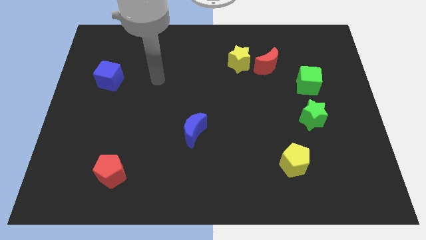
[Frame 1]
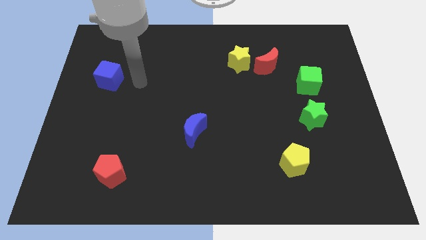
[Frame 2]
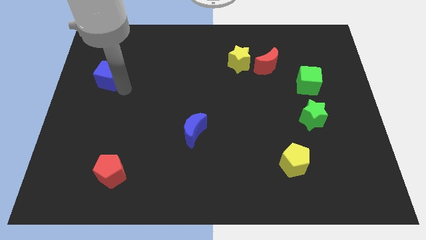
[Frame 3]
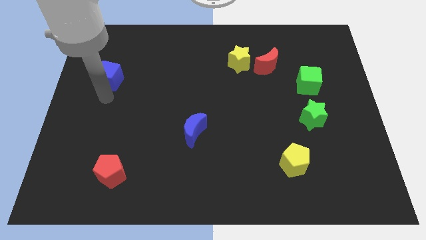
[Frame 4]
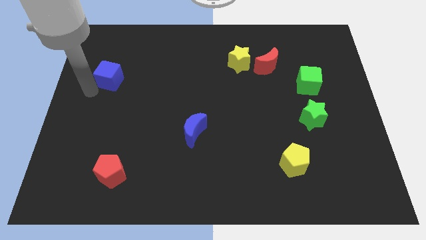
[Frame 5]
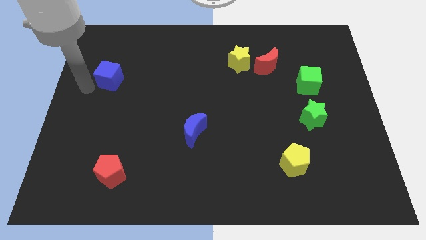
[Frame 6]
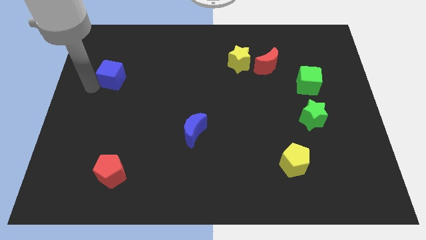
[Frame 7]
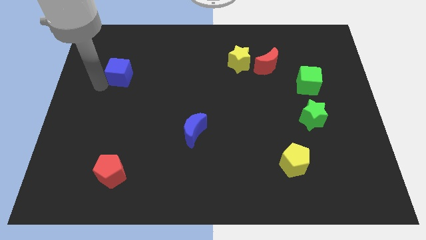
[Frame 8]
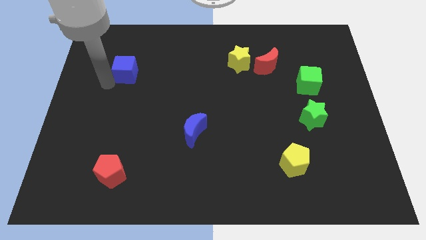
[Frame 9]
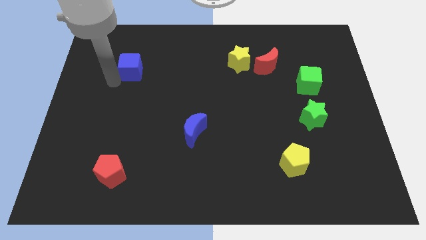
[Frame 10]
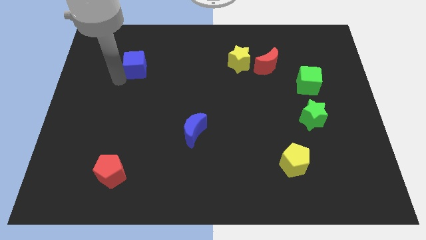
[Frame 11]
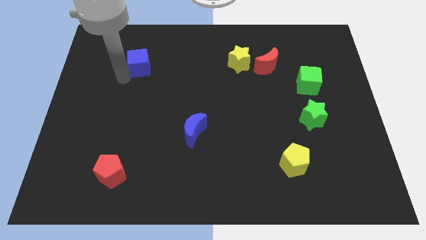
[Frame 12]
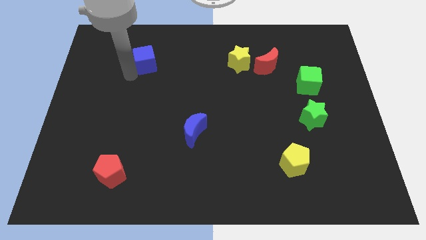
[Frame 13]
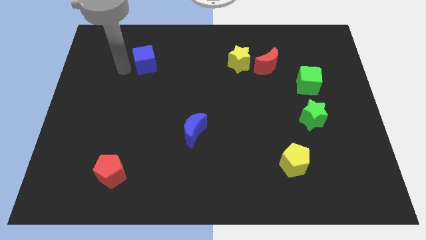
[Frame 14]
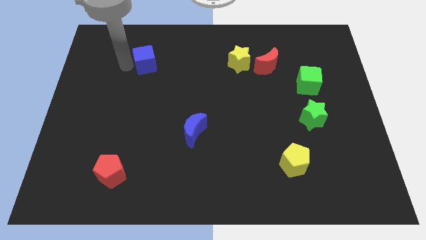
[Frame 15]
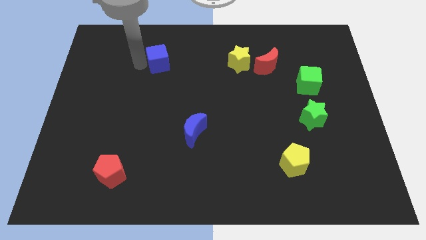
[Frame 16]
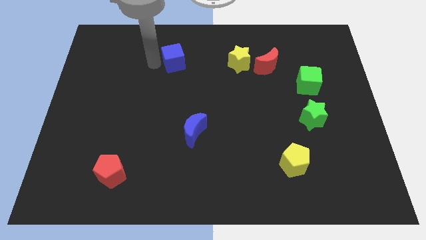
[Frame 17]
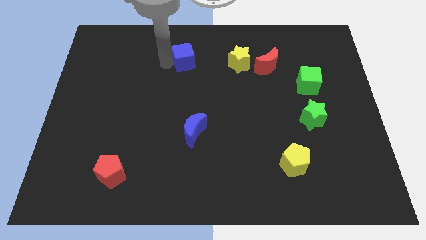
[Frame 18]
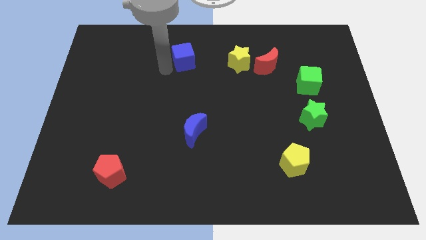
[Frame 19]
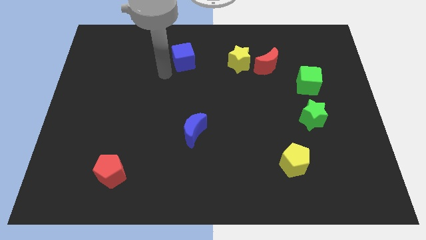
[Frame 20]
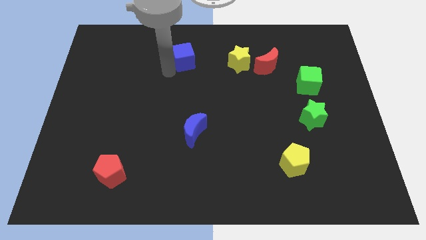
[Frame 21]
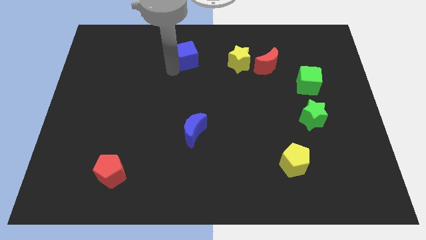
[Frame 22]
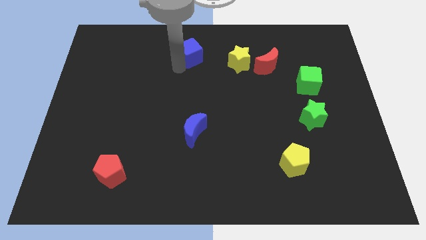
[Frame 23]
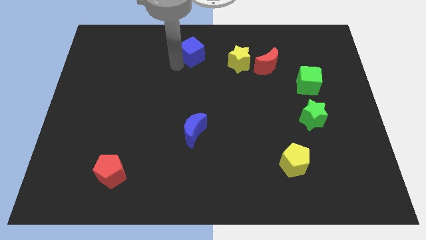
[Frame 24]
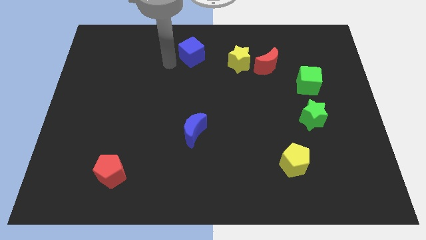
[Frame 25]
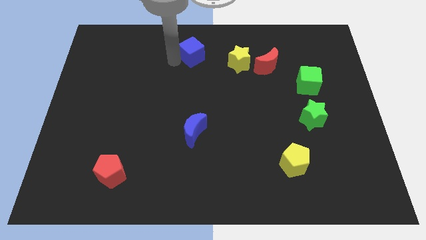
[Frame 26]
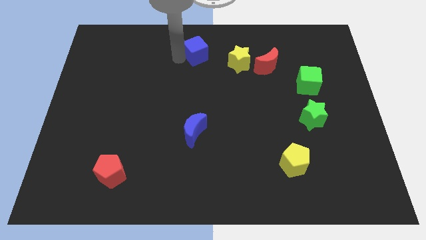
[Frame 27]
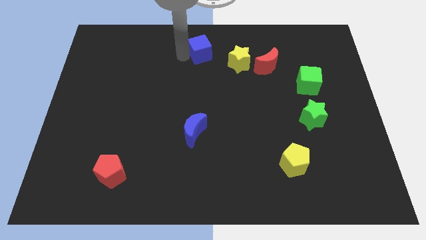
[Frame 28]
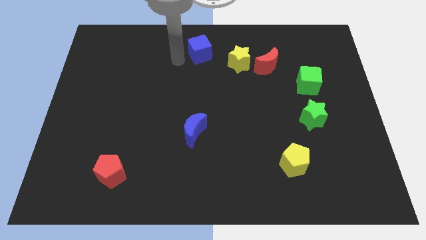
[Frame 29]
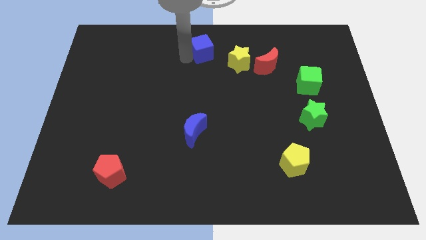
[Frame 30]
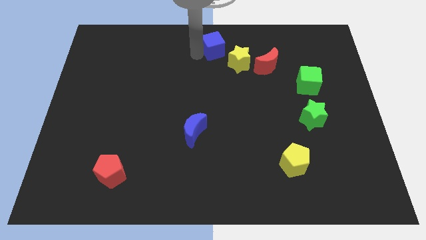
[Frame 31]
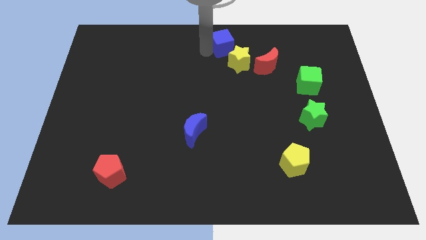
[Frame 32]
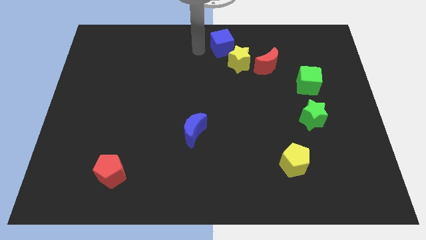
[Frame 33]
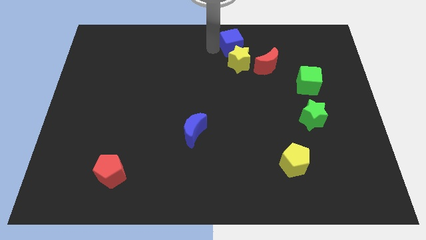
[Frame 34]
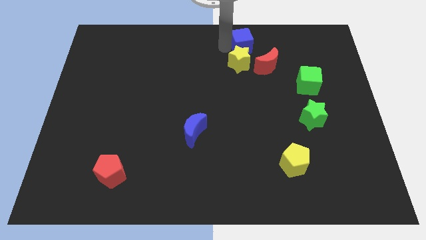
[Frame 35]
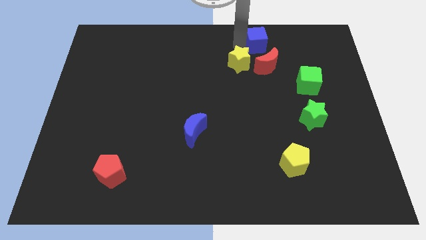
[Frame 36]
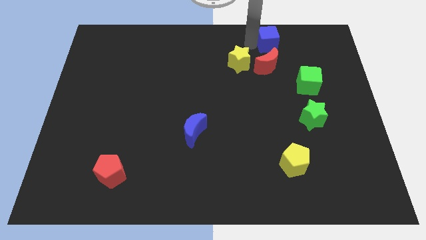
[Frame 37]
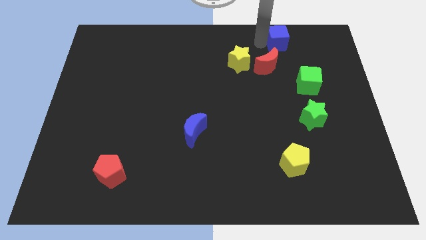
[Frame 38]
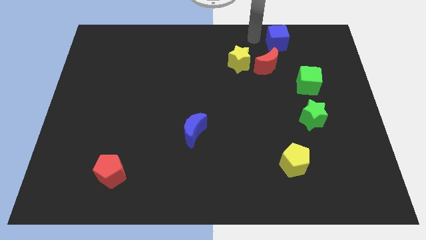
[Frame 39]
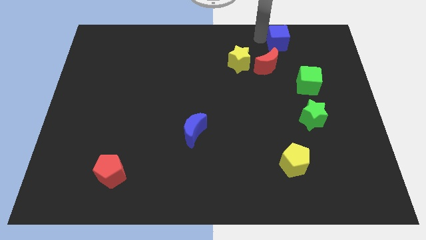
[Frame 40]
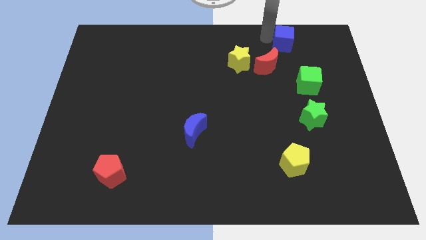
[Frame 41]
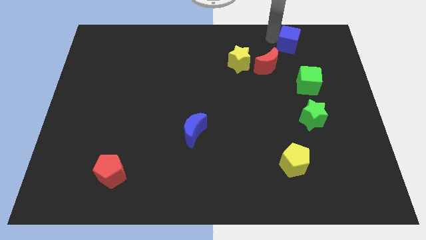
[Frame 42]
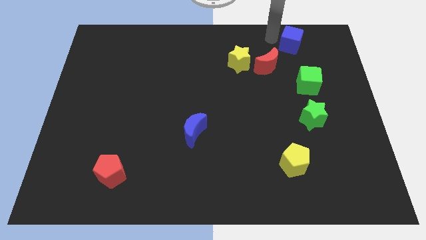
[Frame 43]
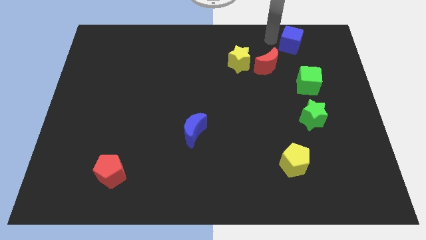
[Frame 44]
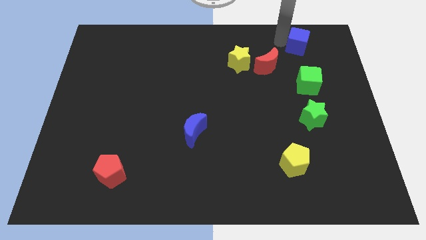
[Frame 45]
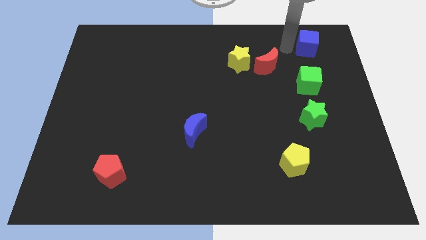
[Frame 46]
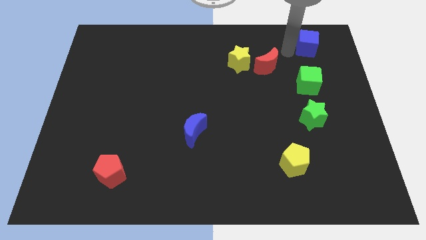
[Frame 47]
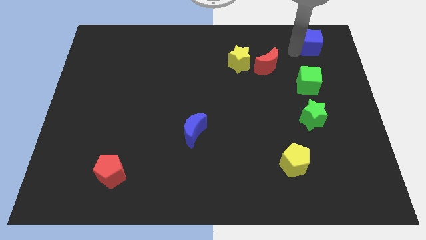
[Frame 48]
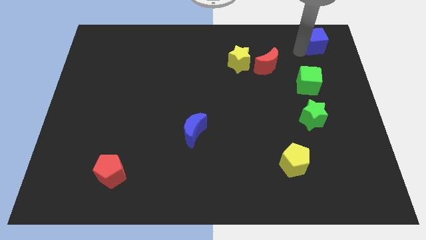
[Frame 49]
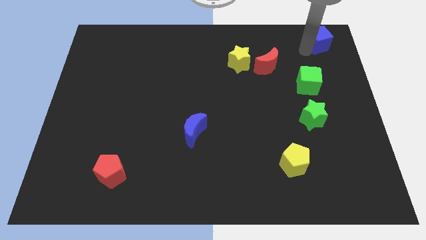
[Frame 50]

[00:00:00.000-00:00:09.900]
slide the blue cube to the top right

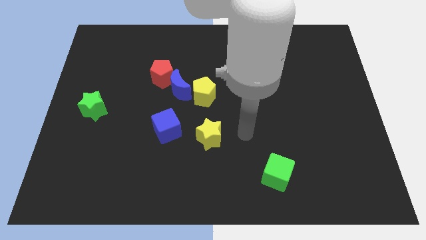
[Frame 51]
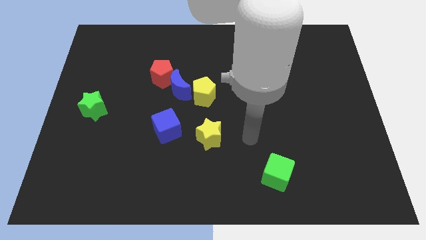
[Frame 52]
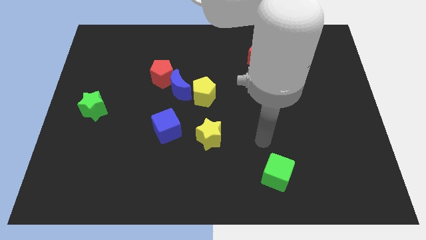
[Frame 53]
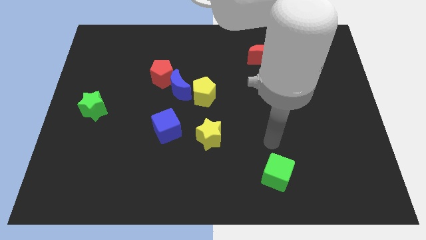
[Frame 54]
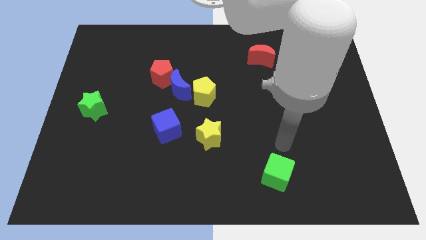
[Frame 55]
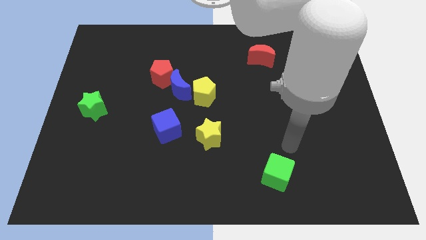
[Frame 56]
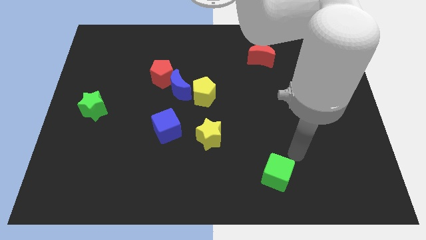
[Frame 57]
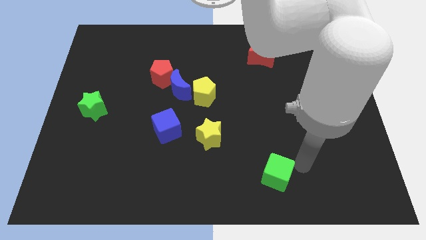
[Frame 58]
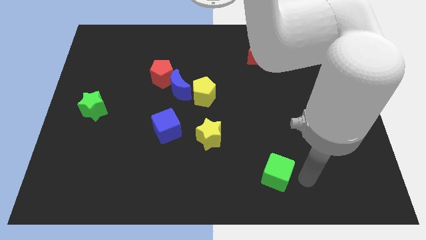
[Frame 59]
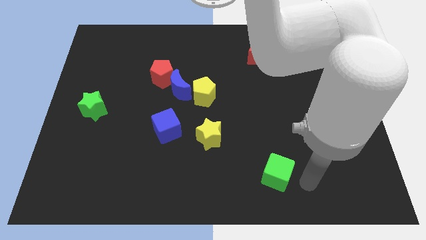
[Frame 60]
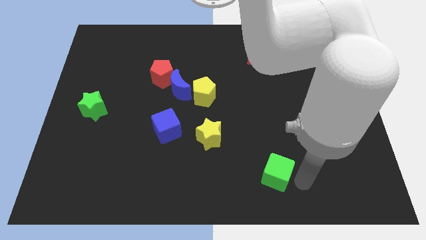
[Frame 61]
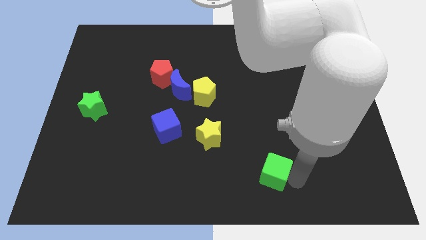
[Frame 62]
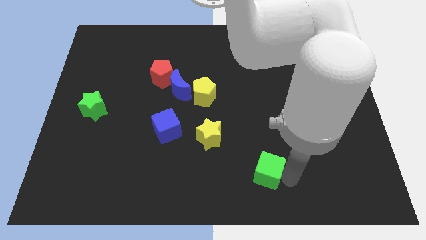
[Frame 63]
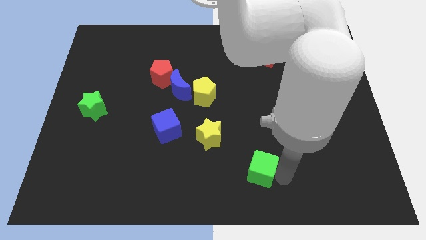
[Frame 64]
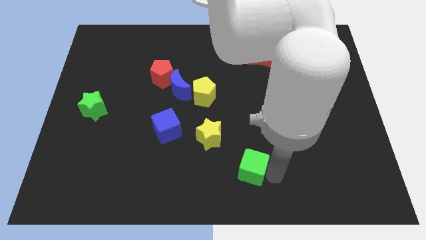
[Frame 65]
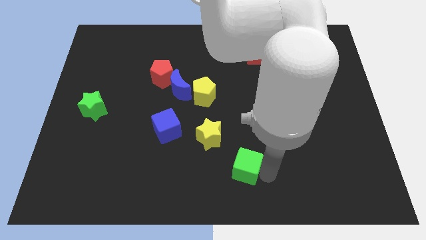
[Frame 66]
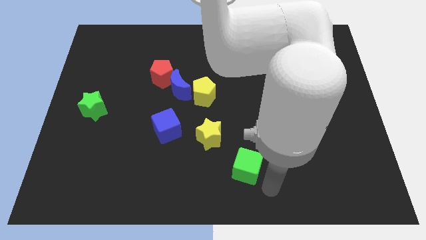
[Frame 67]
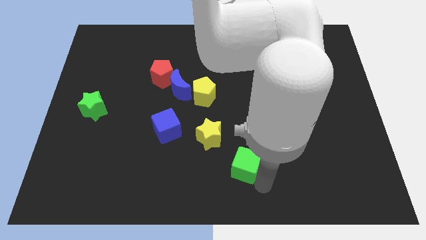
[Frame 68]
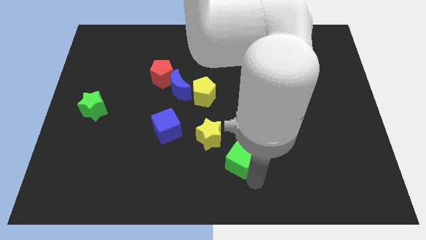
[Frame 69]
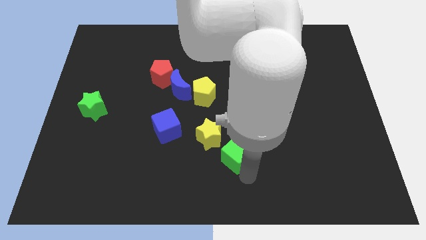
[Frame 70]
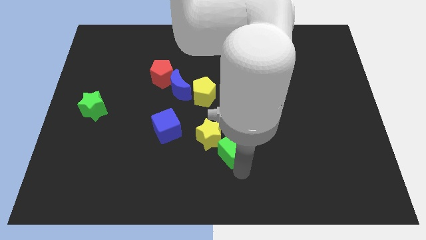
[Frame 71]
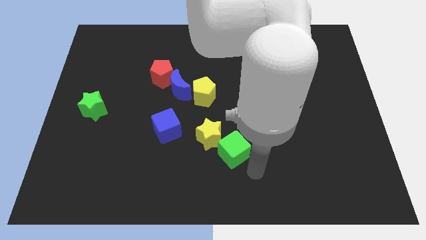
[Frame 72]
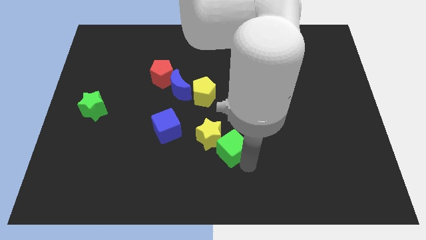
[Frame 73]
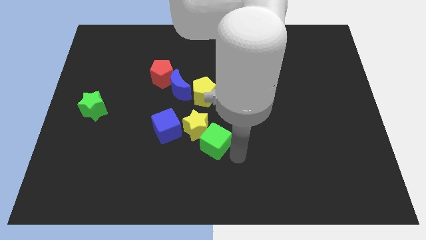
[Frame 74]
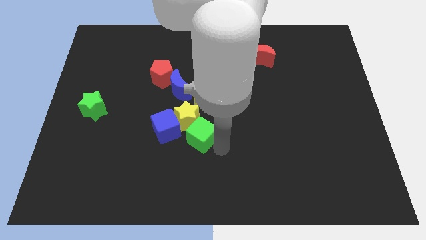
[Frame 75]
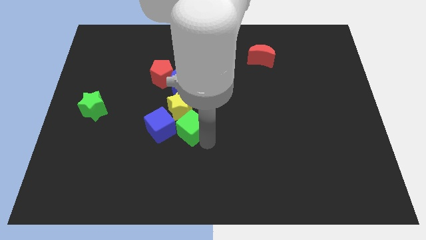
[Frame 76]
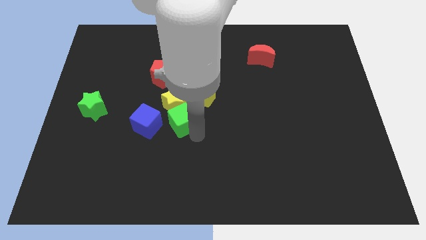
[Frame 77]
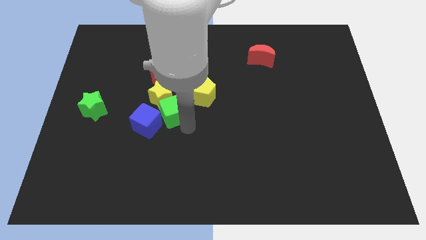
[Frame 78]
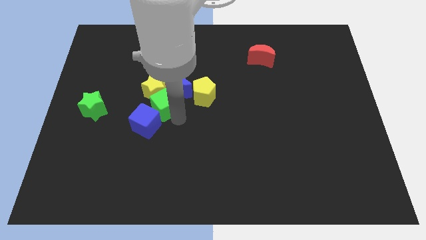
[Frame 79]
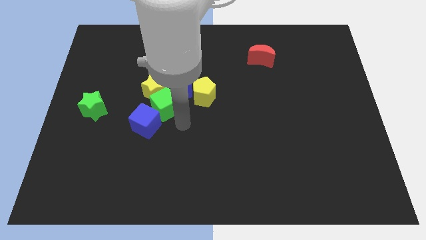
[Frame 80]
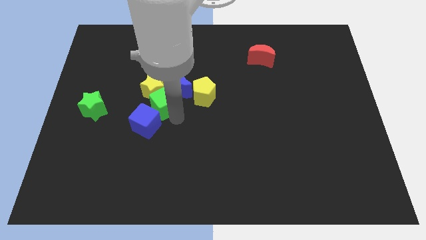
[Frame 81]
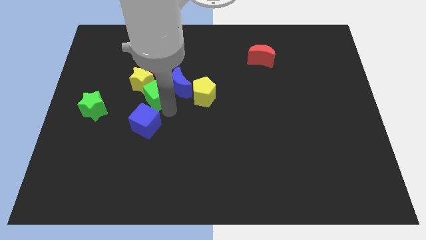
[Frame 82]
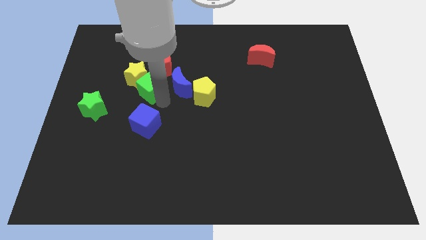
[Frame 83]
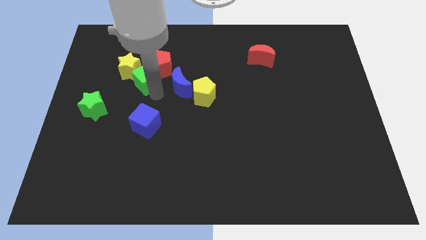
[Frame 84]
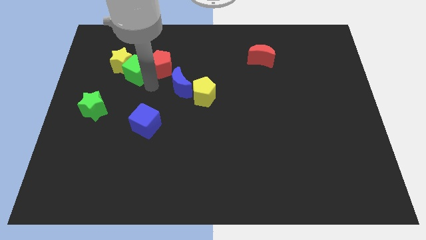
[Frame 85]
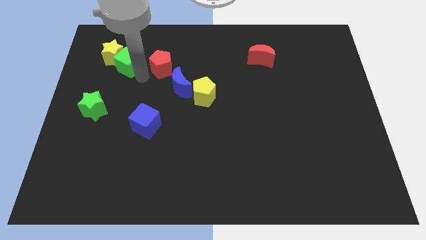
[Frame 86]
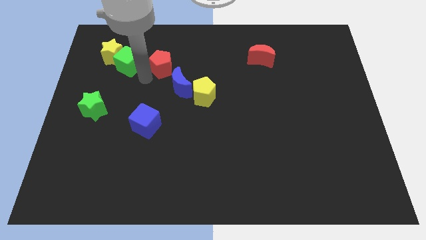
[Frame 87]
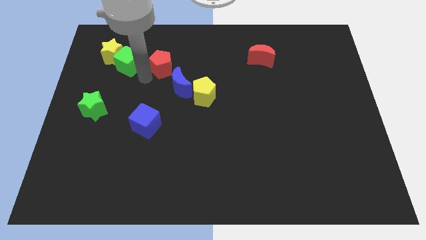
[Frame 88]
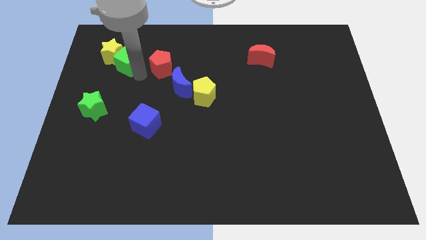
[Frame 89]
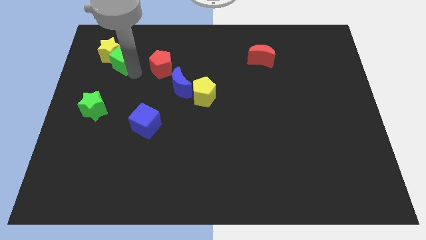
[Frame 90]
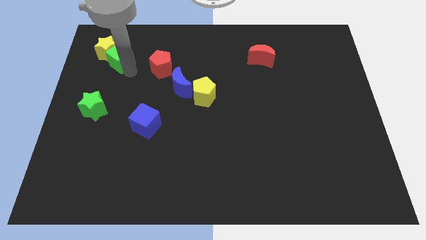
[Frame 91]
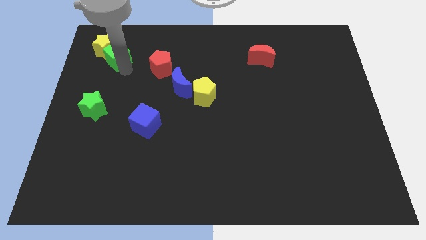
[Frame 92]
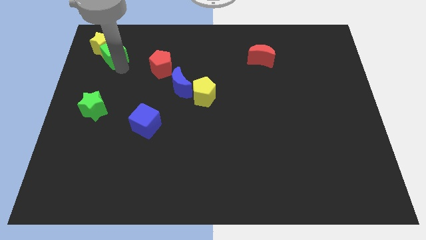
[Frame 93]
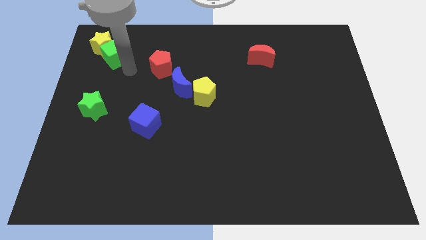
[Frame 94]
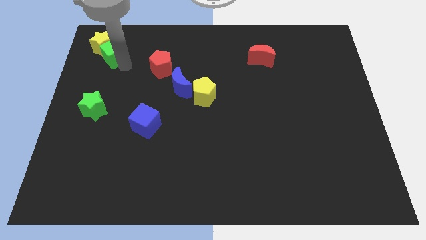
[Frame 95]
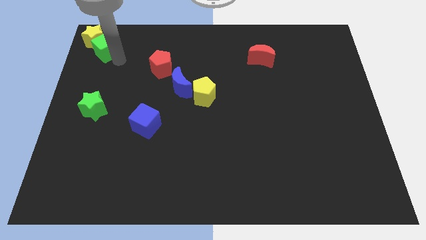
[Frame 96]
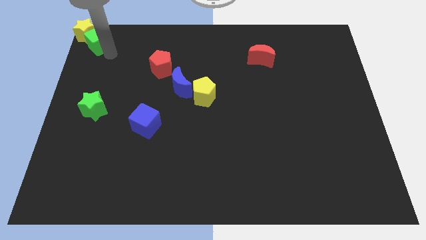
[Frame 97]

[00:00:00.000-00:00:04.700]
move the green cube to the top left of the board
